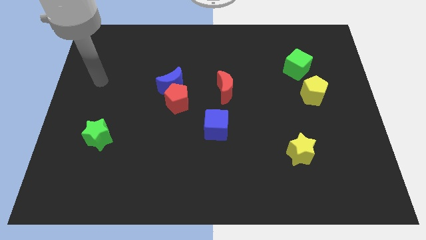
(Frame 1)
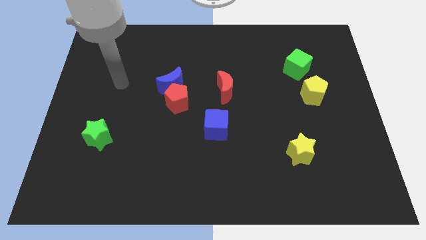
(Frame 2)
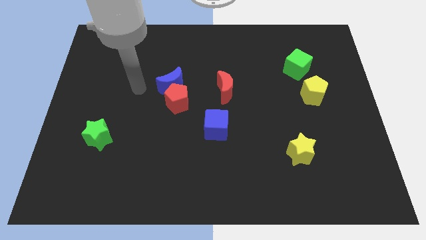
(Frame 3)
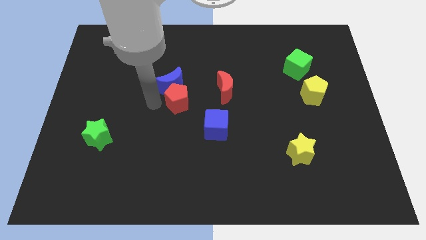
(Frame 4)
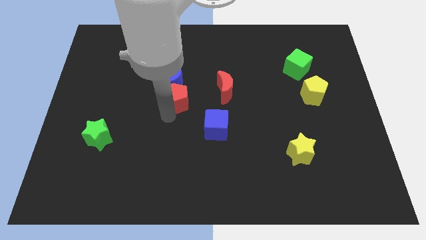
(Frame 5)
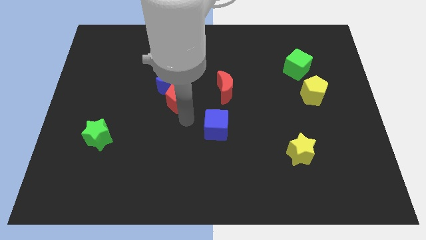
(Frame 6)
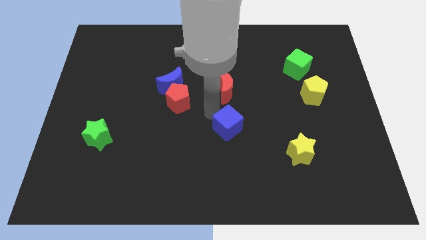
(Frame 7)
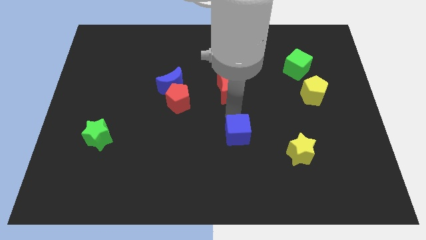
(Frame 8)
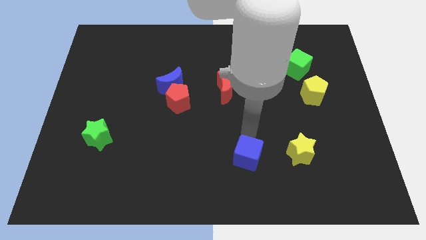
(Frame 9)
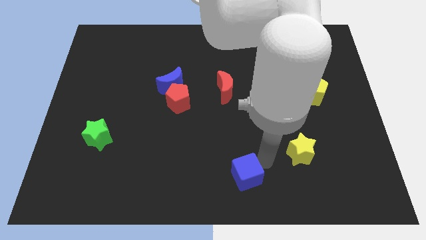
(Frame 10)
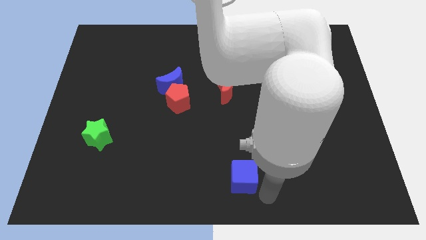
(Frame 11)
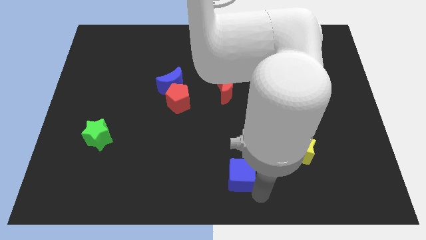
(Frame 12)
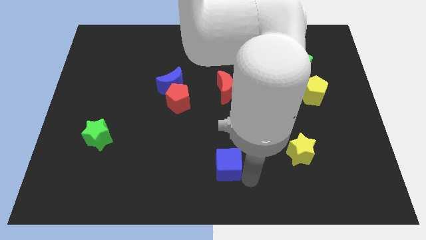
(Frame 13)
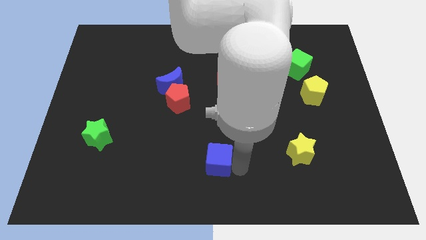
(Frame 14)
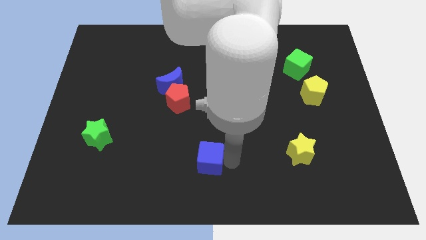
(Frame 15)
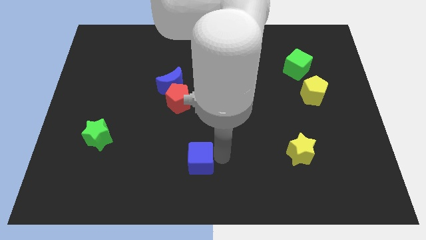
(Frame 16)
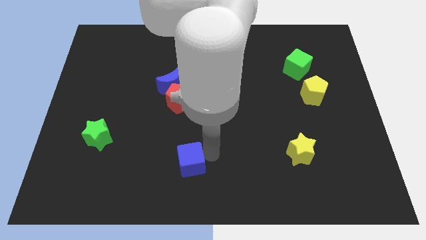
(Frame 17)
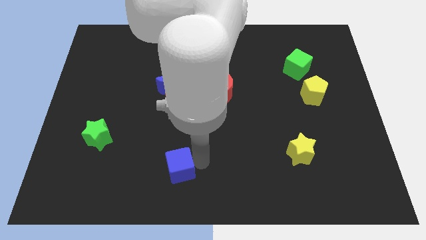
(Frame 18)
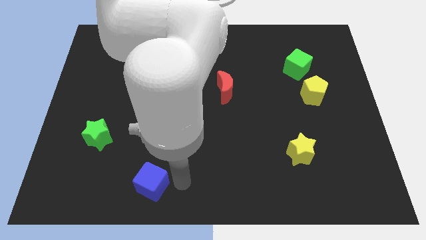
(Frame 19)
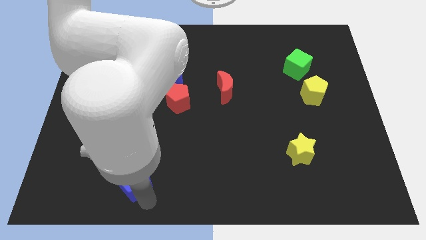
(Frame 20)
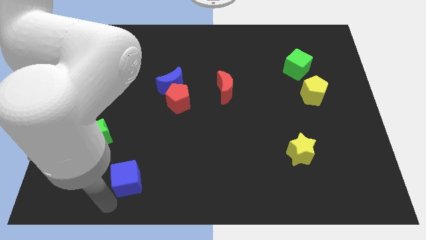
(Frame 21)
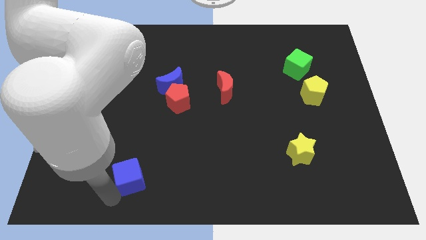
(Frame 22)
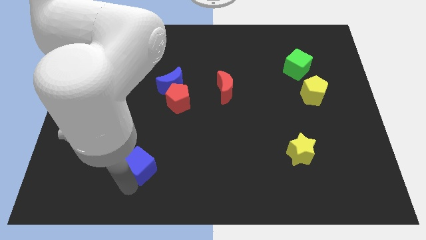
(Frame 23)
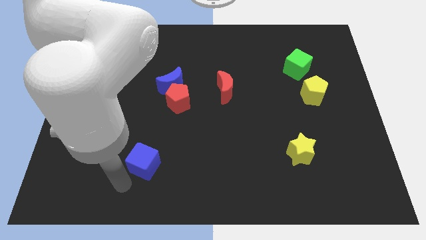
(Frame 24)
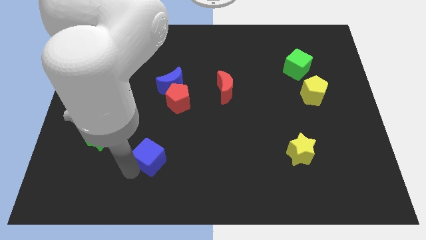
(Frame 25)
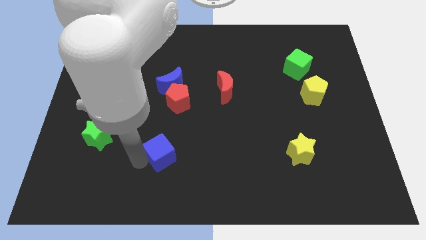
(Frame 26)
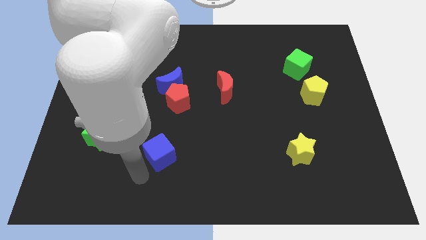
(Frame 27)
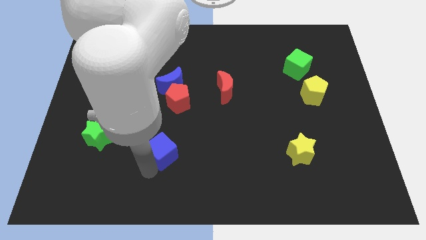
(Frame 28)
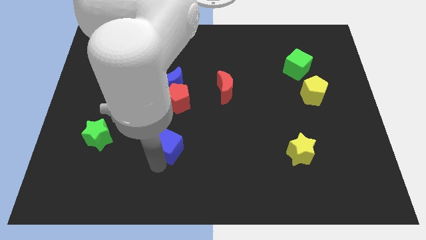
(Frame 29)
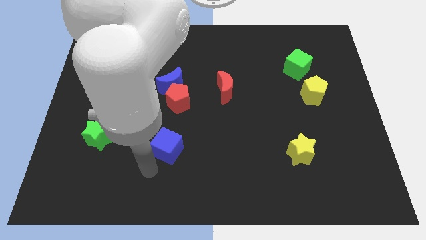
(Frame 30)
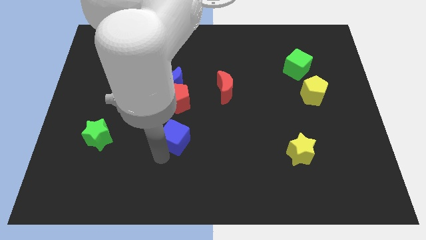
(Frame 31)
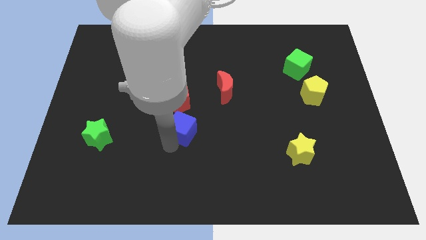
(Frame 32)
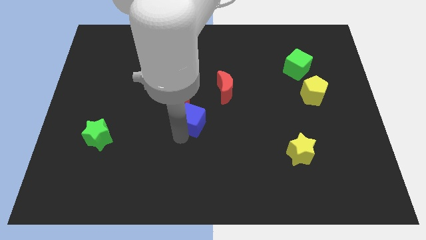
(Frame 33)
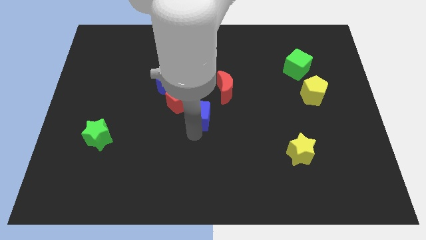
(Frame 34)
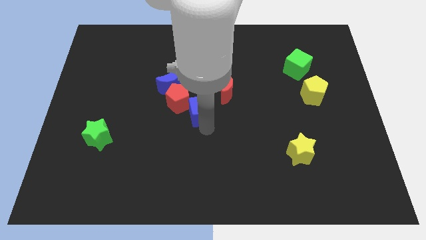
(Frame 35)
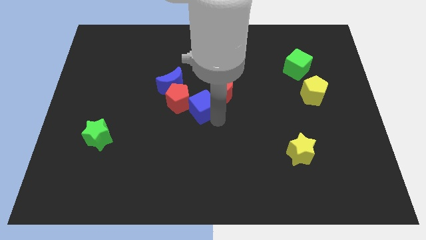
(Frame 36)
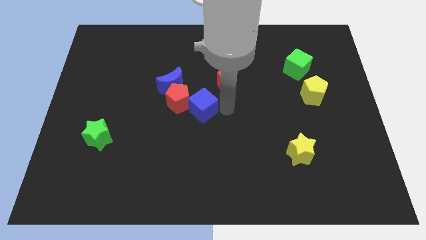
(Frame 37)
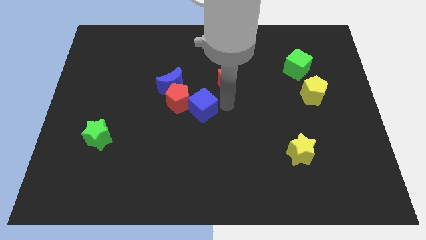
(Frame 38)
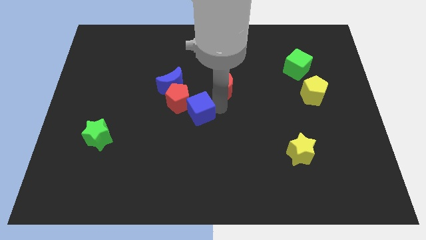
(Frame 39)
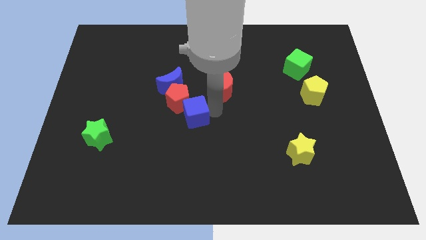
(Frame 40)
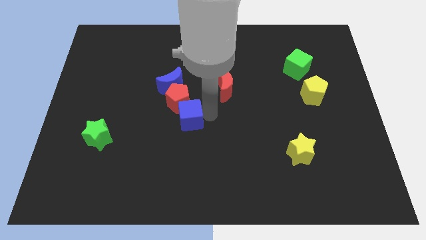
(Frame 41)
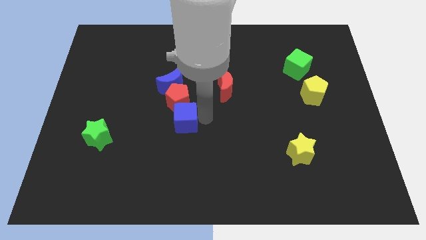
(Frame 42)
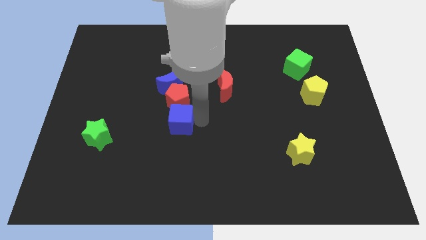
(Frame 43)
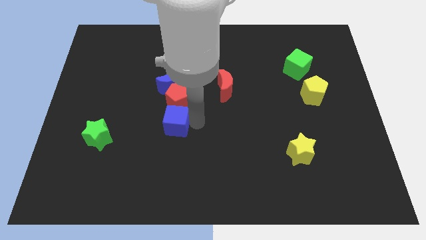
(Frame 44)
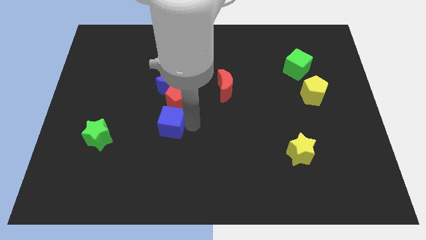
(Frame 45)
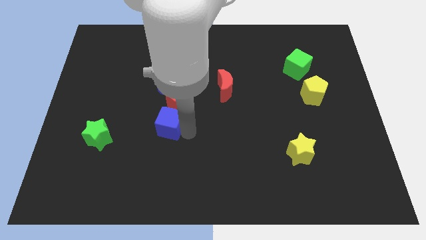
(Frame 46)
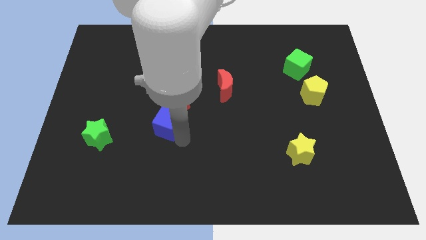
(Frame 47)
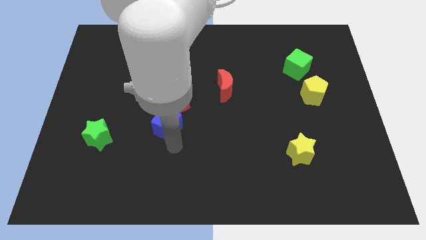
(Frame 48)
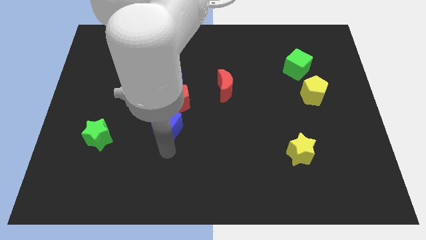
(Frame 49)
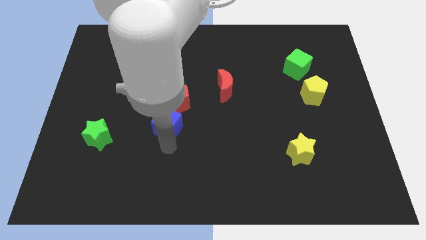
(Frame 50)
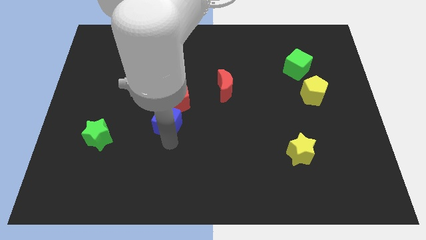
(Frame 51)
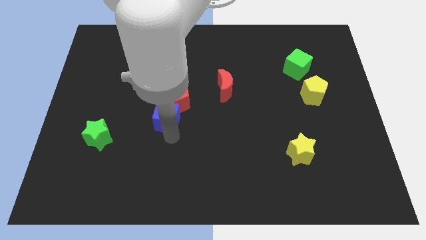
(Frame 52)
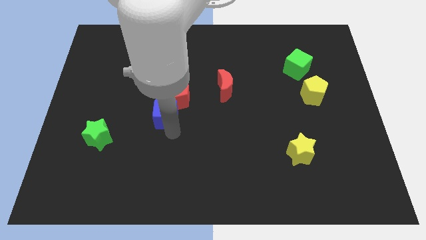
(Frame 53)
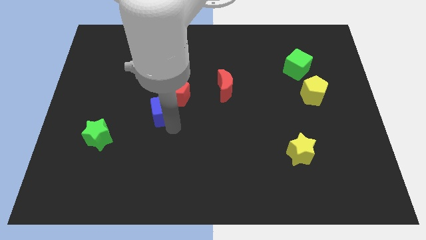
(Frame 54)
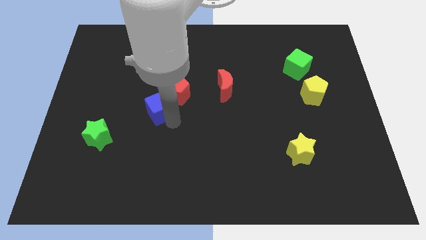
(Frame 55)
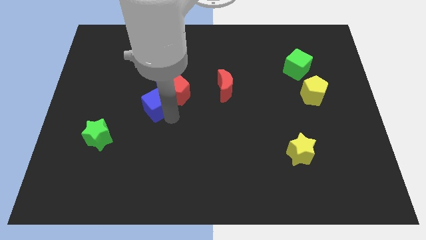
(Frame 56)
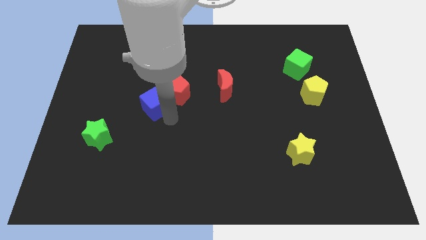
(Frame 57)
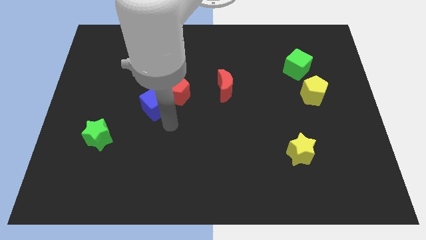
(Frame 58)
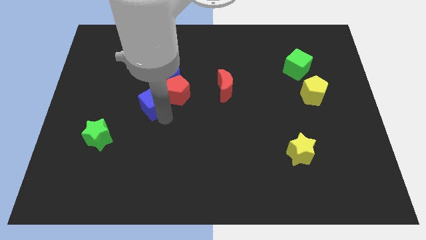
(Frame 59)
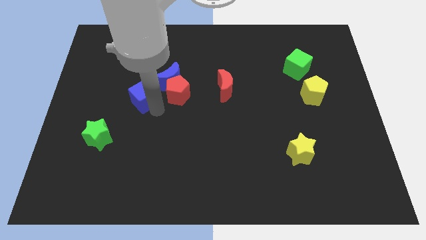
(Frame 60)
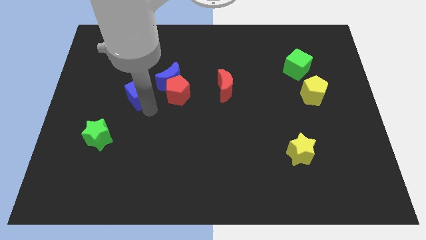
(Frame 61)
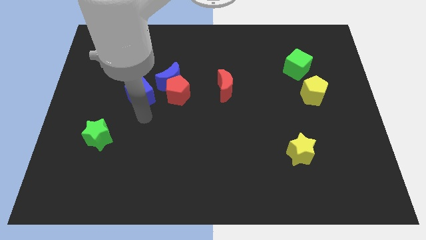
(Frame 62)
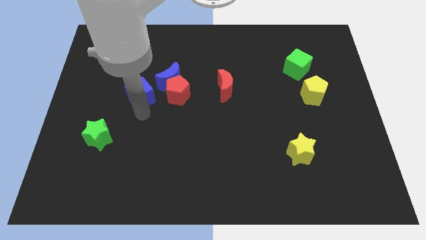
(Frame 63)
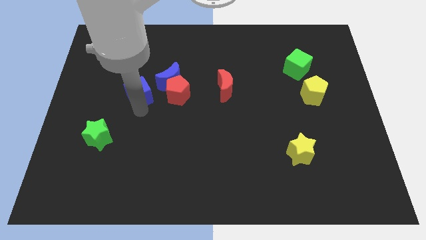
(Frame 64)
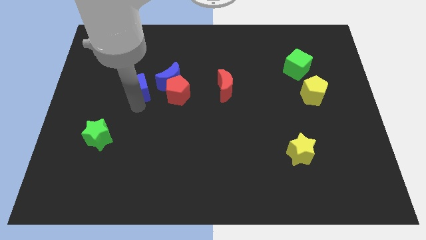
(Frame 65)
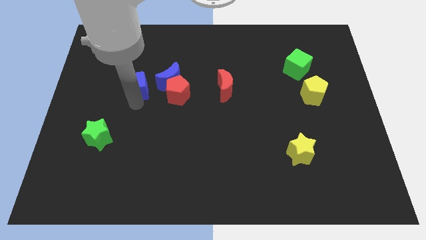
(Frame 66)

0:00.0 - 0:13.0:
push the blue cube up and to the left

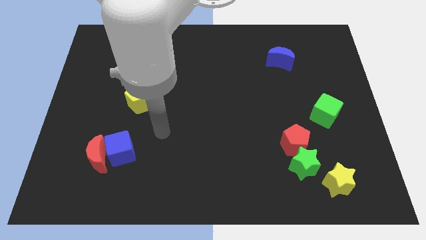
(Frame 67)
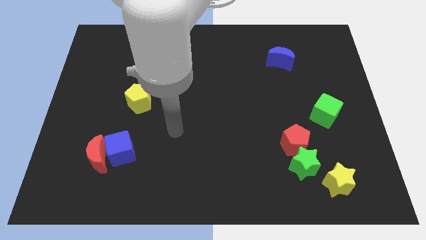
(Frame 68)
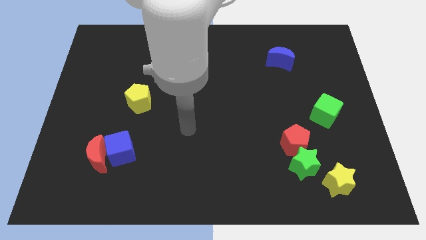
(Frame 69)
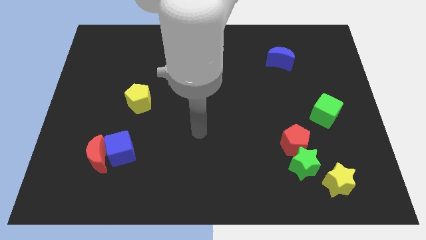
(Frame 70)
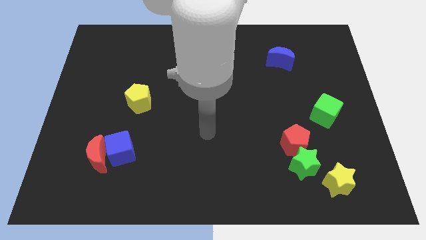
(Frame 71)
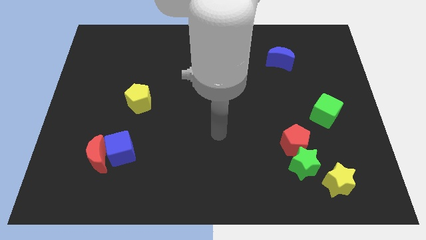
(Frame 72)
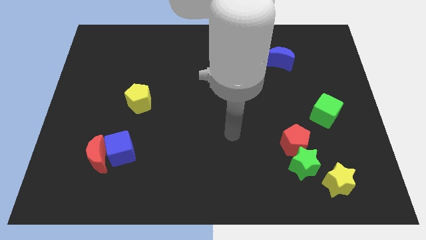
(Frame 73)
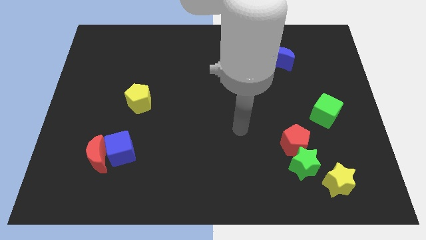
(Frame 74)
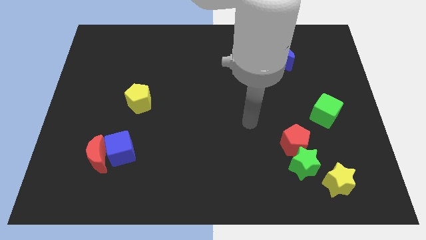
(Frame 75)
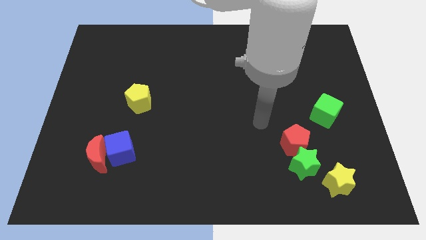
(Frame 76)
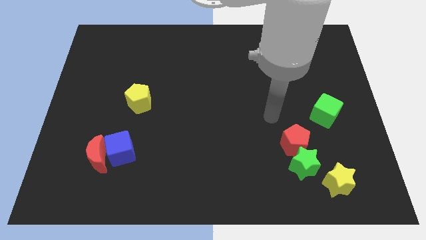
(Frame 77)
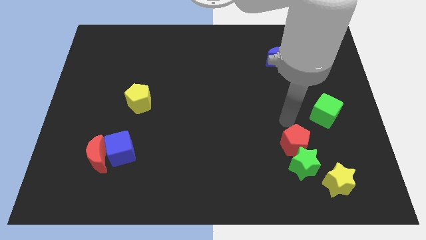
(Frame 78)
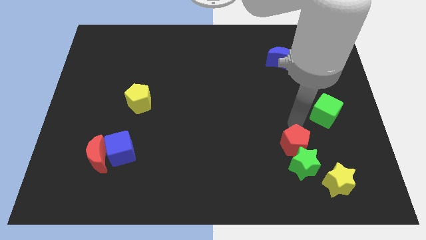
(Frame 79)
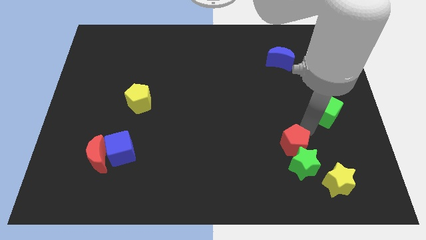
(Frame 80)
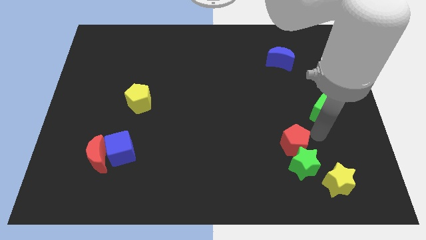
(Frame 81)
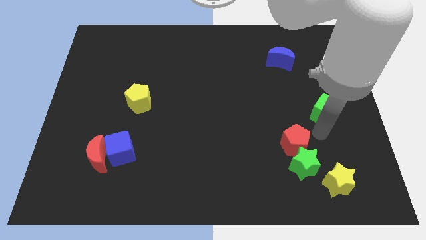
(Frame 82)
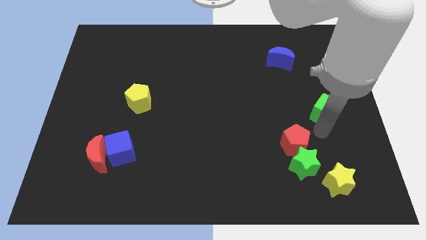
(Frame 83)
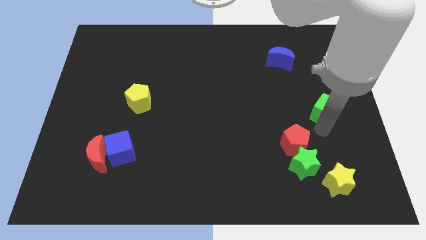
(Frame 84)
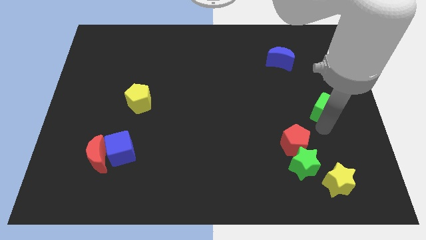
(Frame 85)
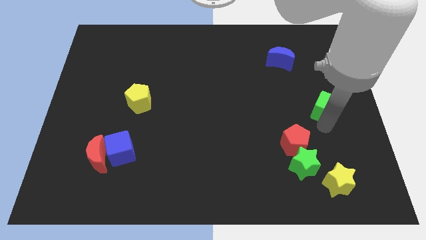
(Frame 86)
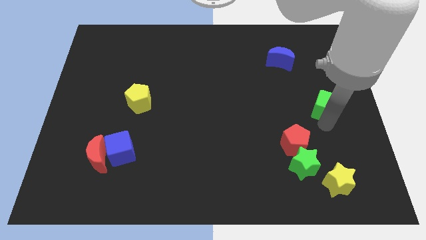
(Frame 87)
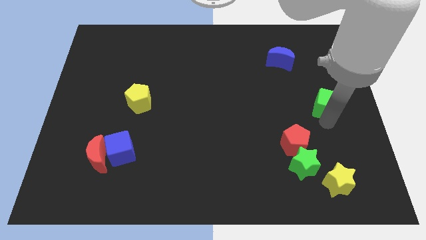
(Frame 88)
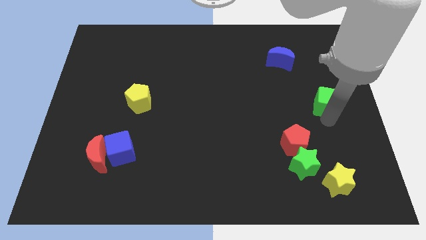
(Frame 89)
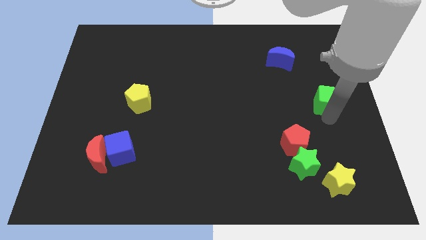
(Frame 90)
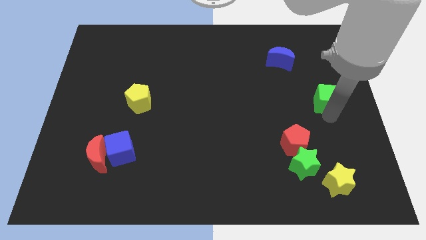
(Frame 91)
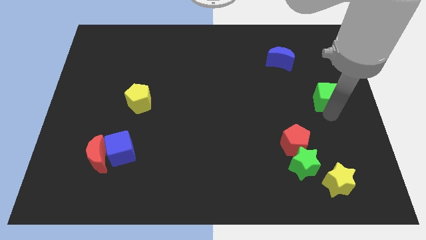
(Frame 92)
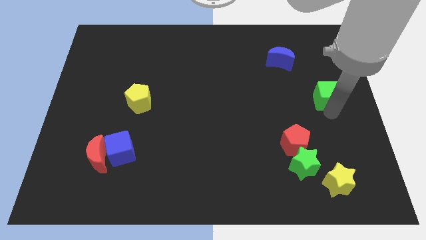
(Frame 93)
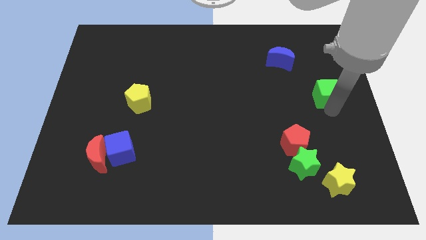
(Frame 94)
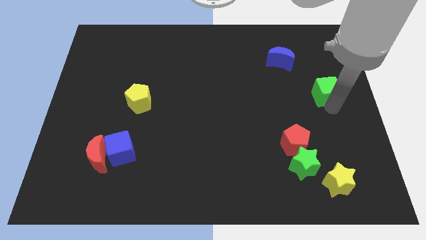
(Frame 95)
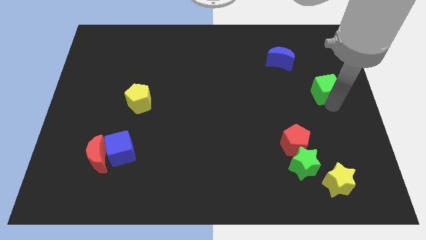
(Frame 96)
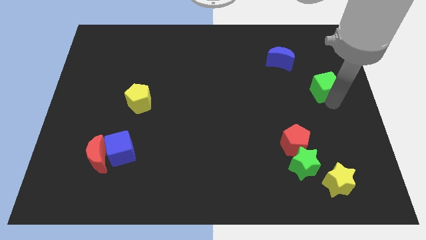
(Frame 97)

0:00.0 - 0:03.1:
slightly move the green cube up
